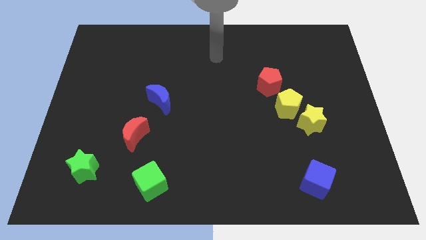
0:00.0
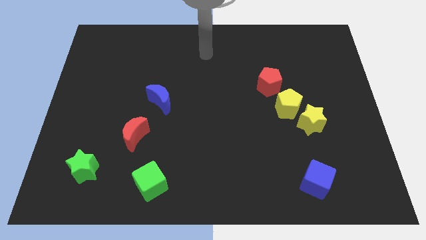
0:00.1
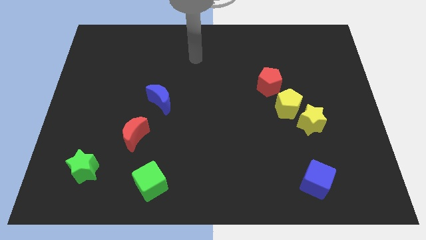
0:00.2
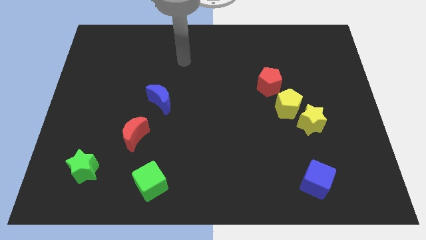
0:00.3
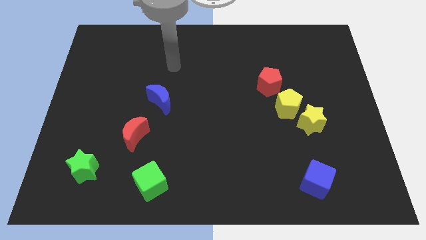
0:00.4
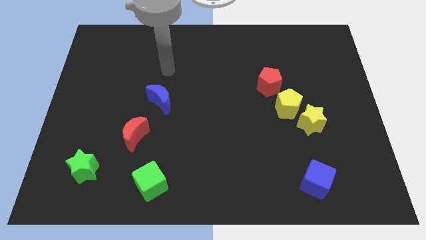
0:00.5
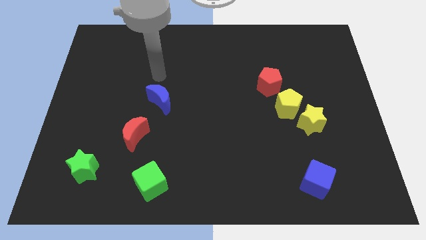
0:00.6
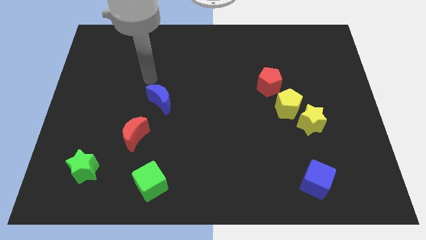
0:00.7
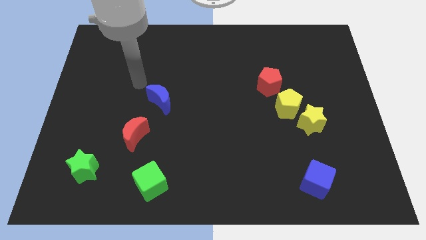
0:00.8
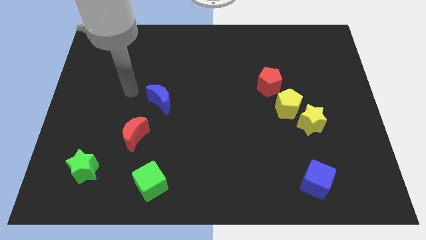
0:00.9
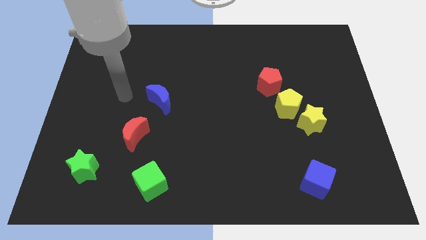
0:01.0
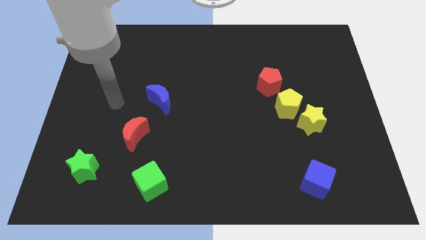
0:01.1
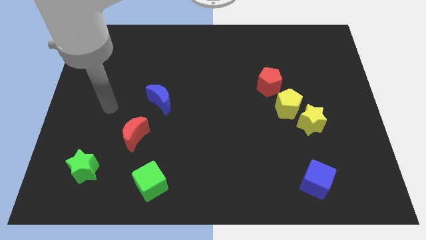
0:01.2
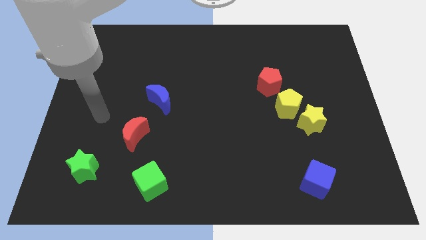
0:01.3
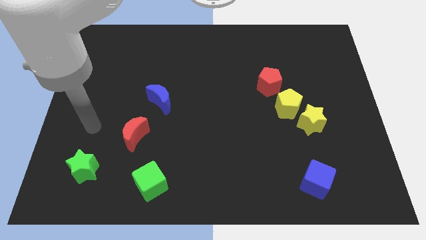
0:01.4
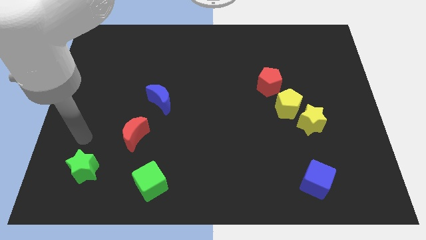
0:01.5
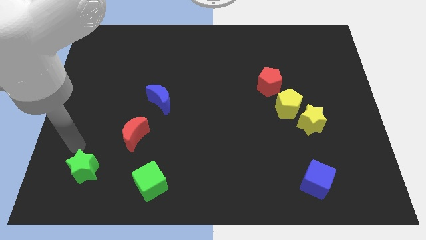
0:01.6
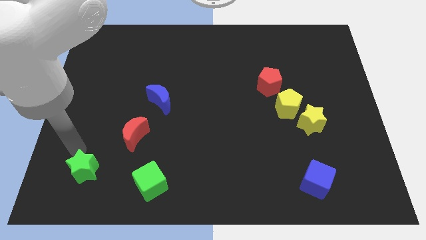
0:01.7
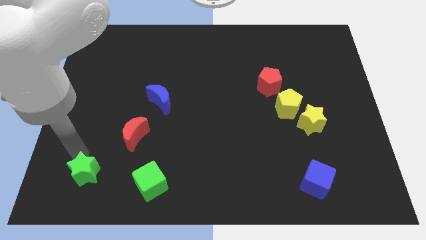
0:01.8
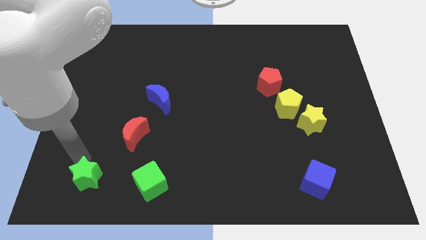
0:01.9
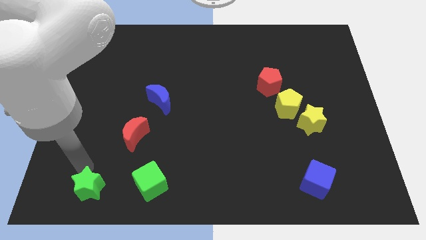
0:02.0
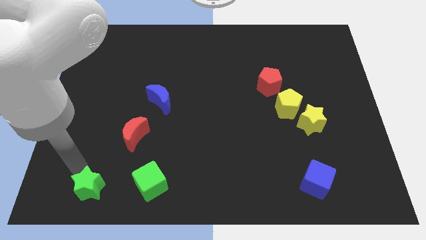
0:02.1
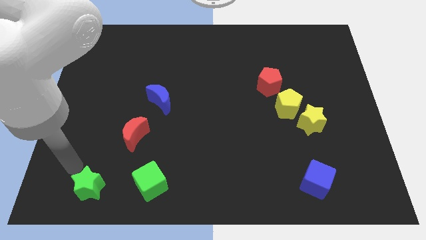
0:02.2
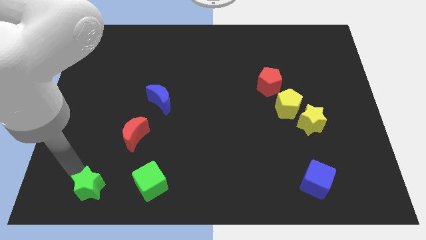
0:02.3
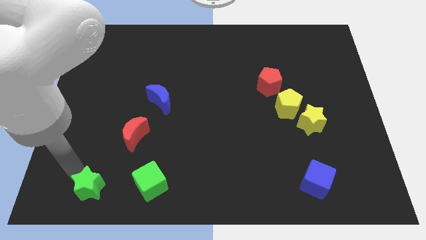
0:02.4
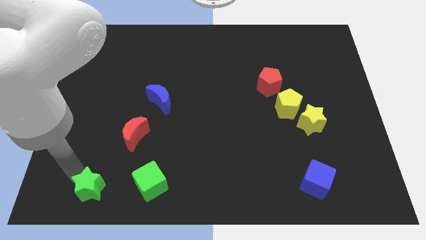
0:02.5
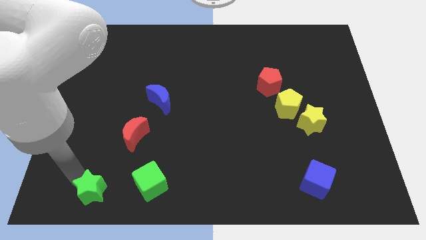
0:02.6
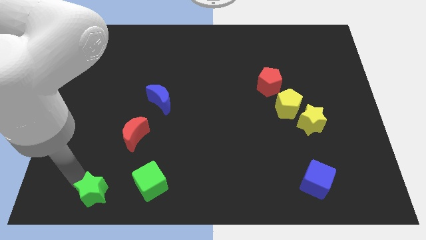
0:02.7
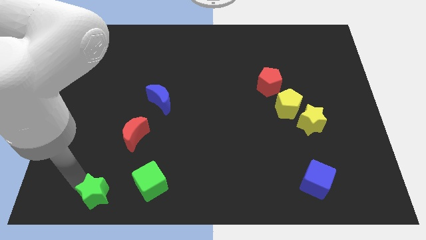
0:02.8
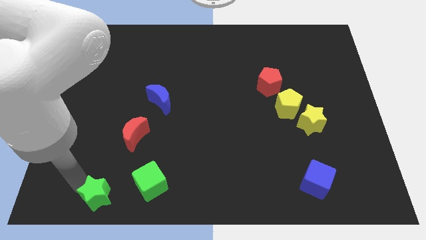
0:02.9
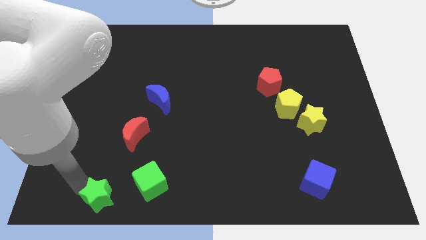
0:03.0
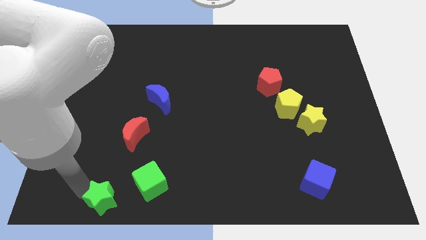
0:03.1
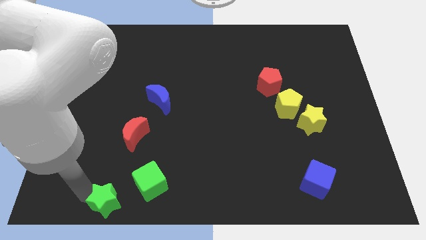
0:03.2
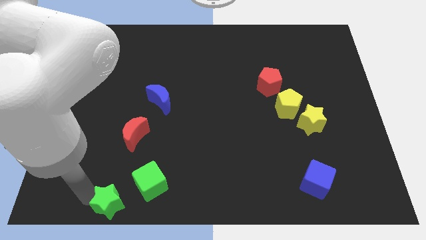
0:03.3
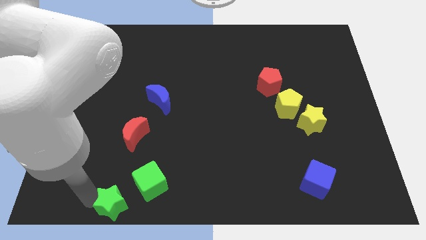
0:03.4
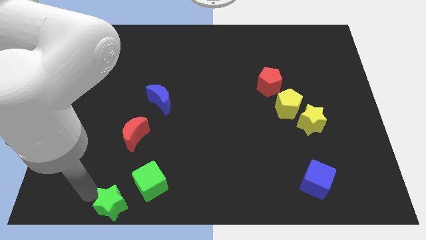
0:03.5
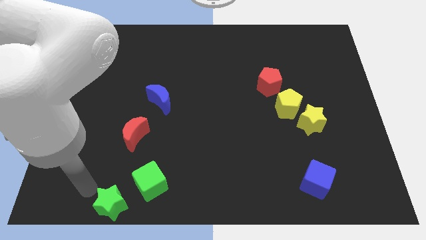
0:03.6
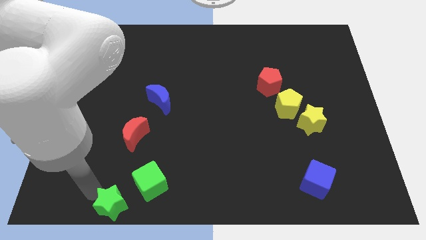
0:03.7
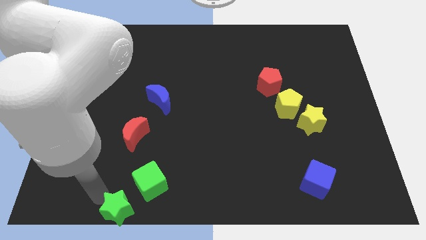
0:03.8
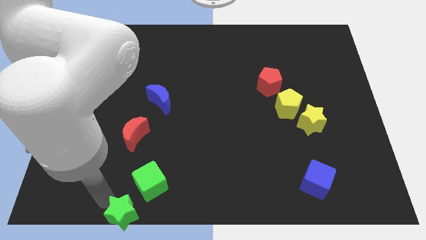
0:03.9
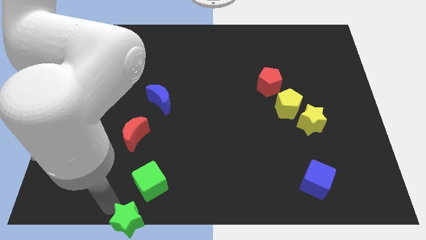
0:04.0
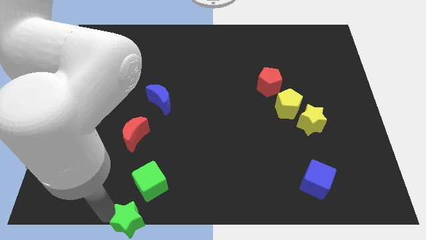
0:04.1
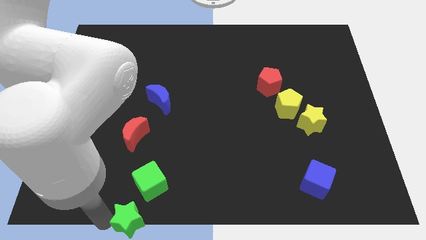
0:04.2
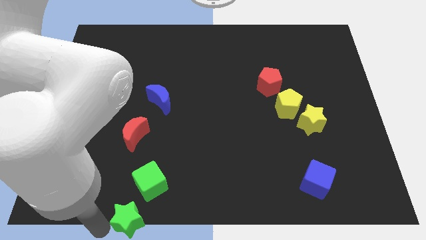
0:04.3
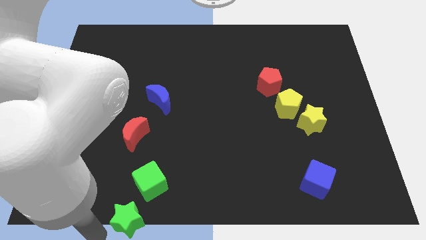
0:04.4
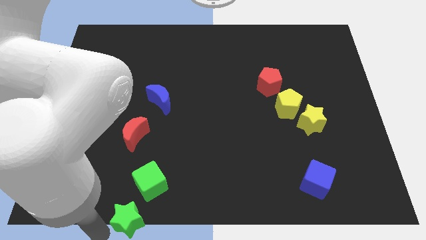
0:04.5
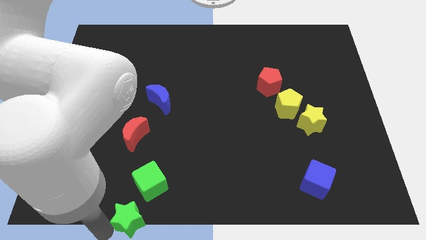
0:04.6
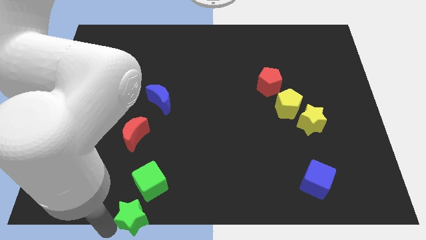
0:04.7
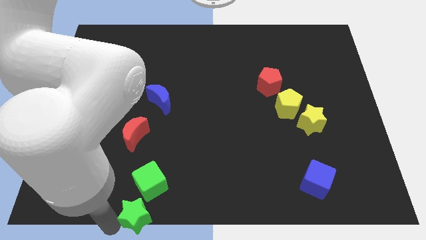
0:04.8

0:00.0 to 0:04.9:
slide the green star to the bottom

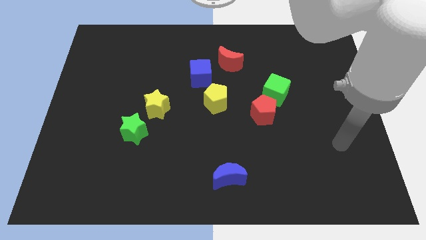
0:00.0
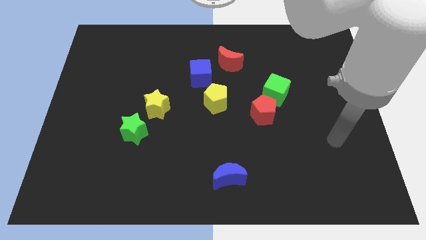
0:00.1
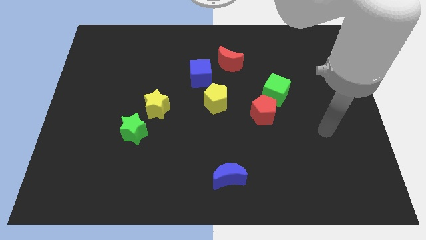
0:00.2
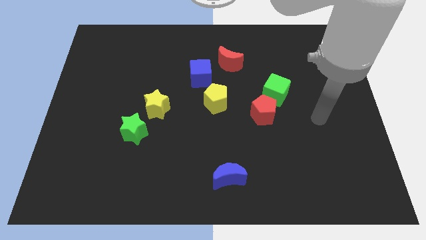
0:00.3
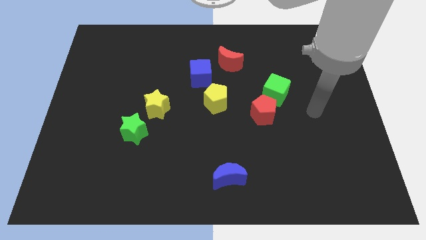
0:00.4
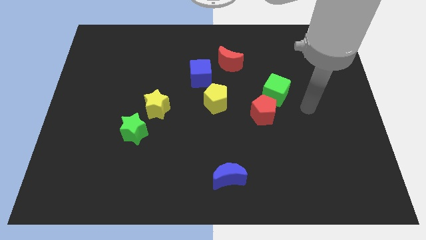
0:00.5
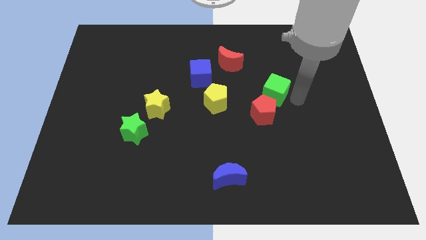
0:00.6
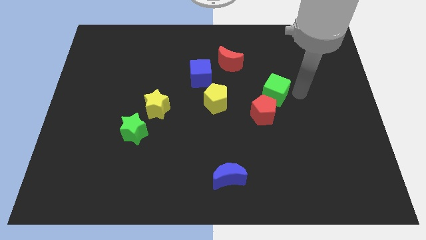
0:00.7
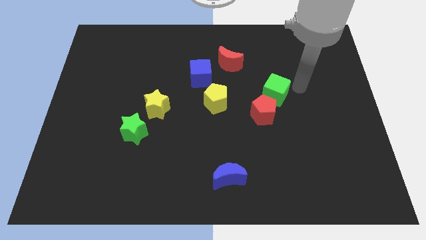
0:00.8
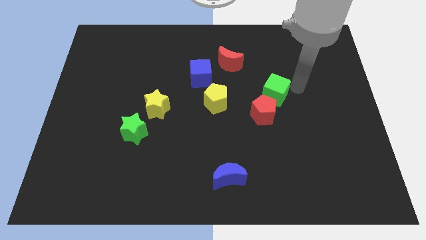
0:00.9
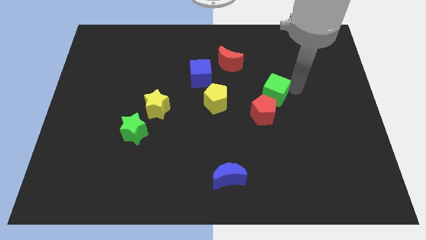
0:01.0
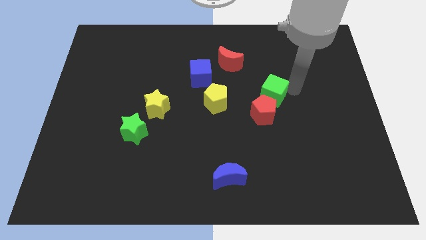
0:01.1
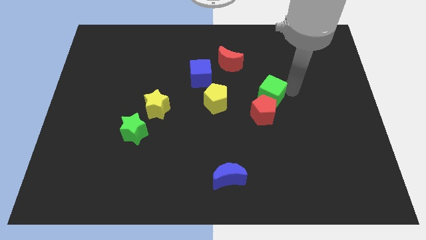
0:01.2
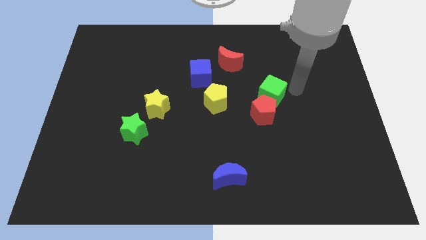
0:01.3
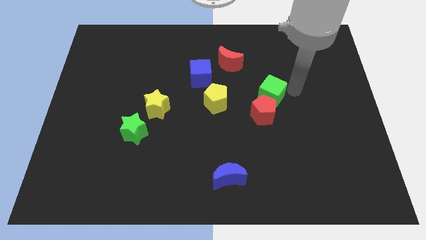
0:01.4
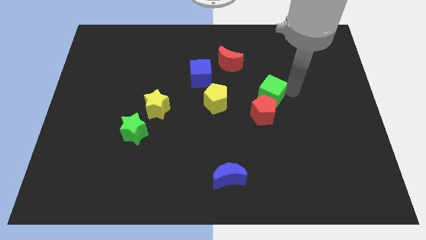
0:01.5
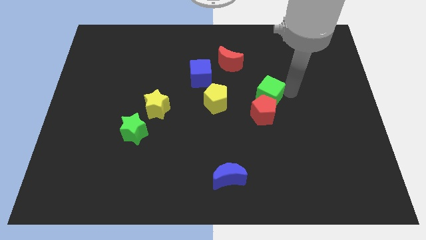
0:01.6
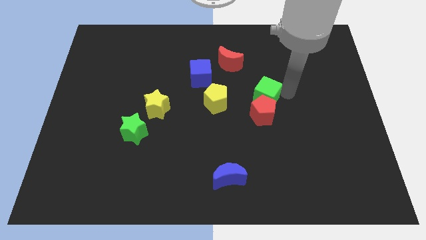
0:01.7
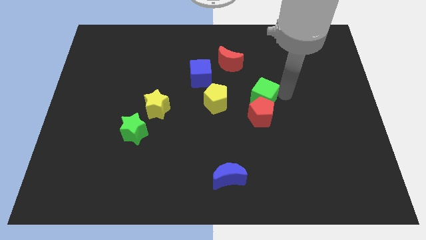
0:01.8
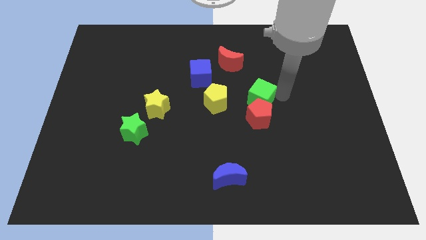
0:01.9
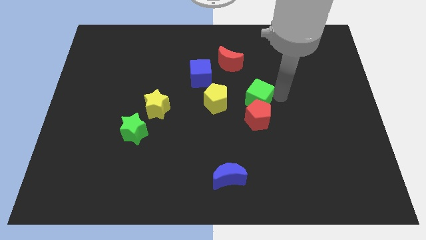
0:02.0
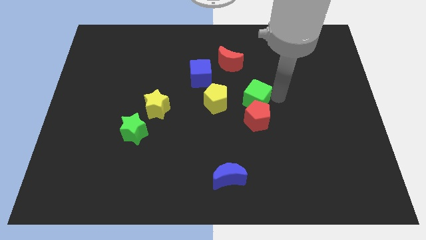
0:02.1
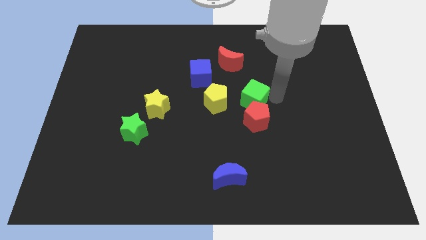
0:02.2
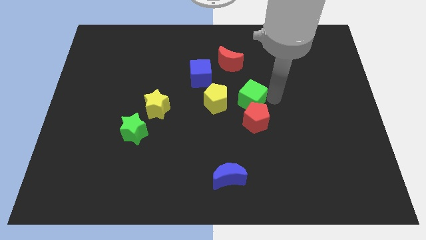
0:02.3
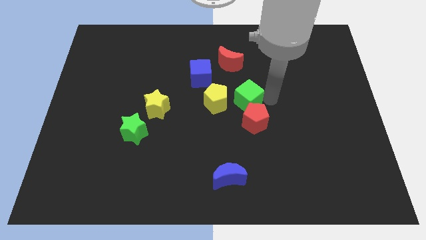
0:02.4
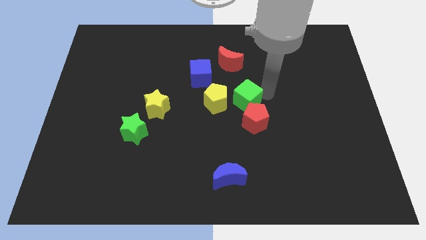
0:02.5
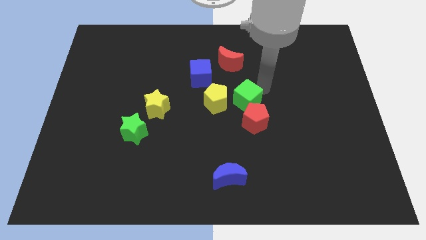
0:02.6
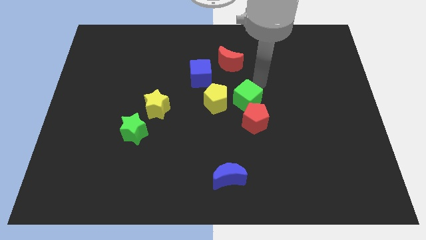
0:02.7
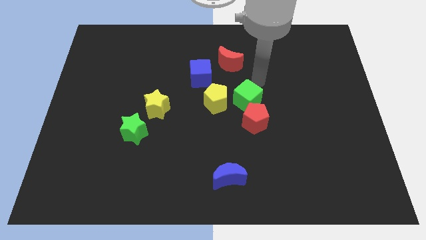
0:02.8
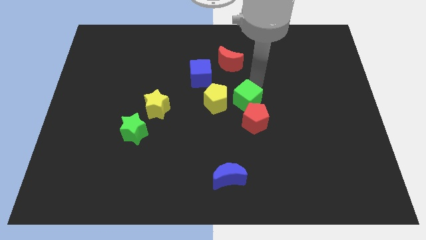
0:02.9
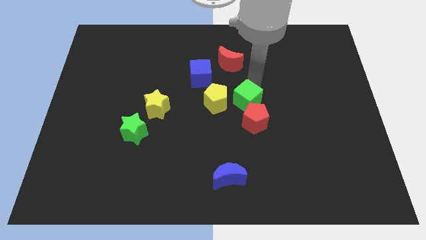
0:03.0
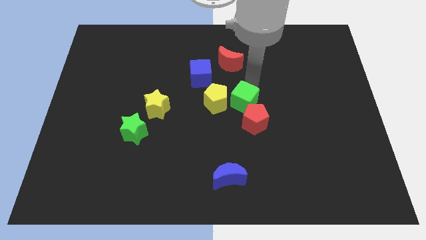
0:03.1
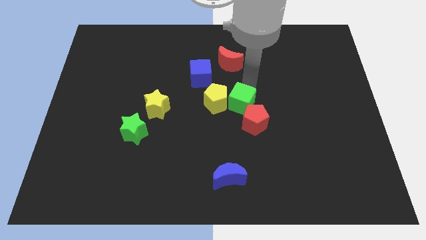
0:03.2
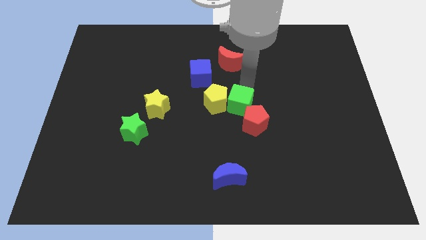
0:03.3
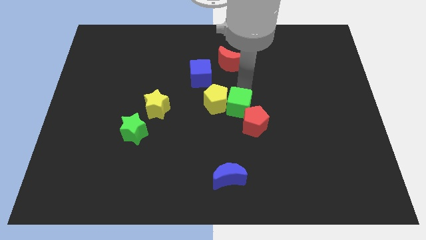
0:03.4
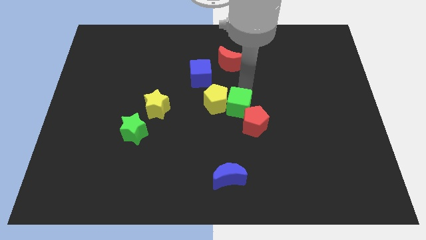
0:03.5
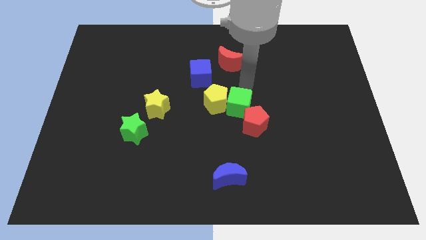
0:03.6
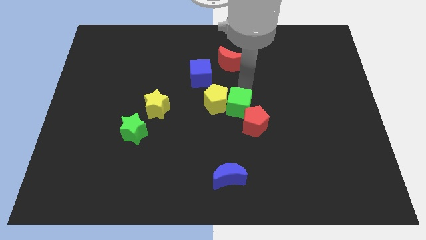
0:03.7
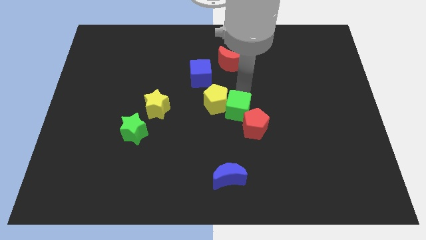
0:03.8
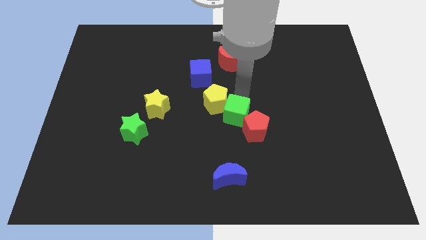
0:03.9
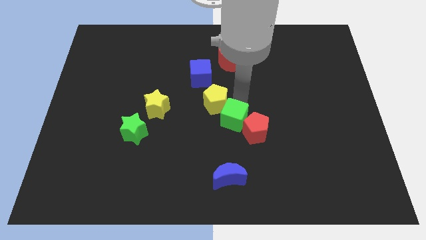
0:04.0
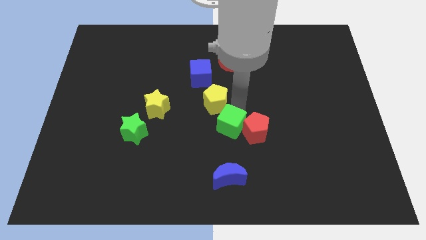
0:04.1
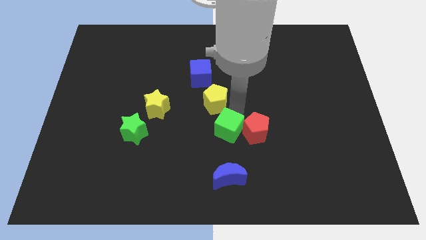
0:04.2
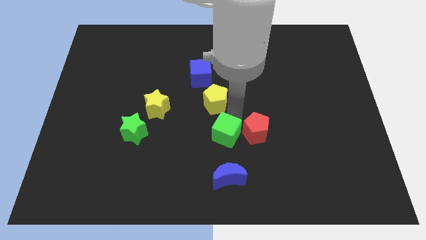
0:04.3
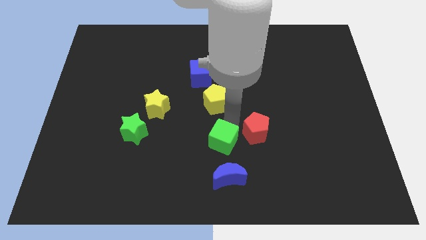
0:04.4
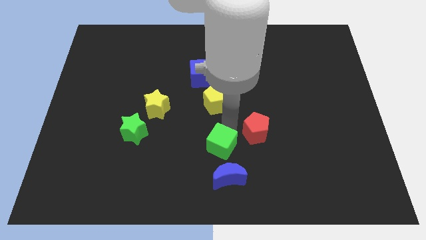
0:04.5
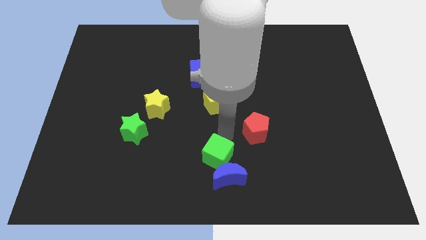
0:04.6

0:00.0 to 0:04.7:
move the green cube to the bottom side
